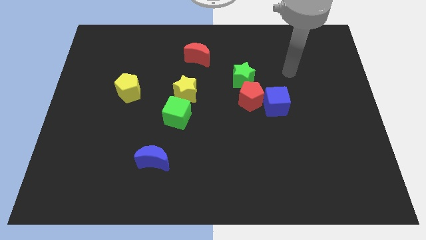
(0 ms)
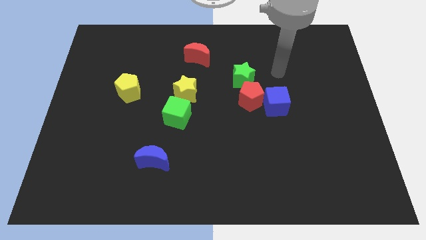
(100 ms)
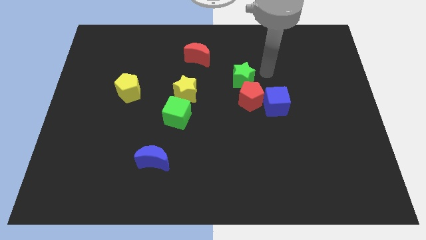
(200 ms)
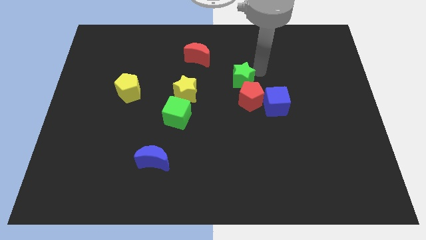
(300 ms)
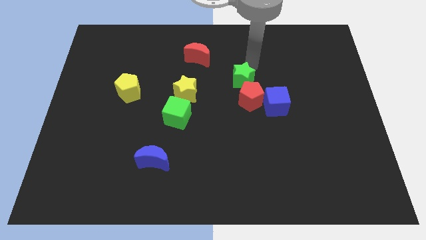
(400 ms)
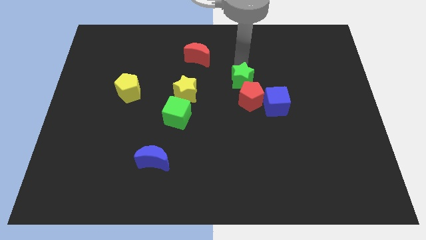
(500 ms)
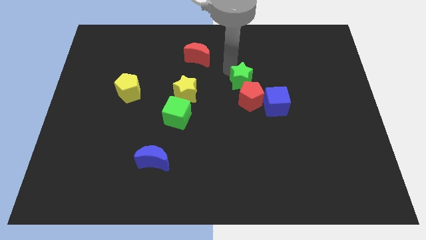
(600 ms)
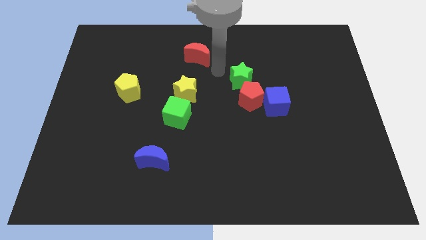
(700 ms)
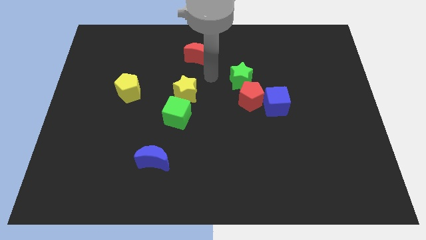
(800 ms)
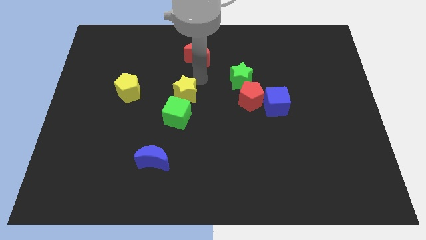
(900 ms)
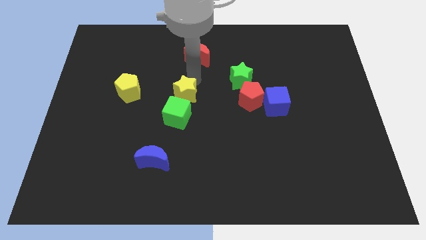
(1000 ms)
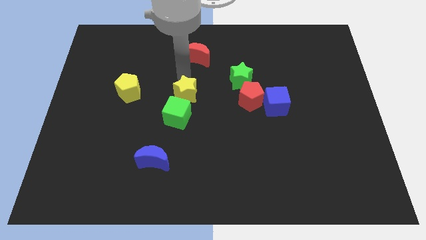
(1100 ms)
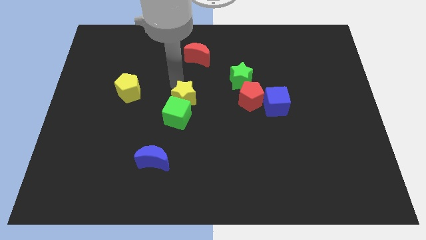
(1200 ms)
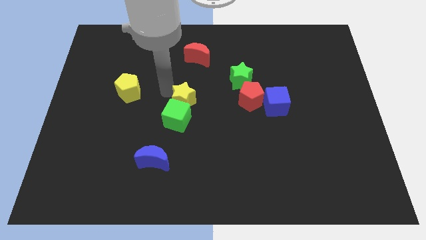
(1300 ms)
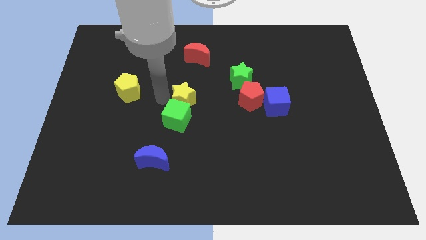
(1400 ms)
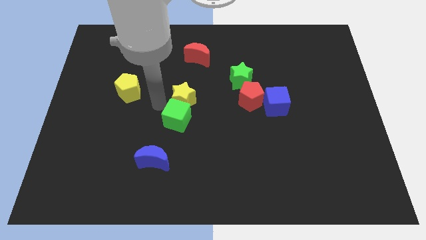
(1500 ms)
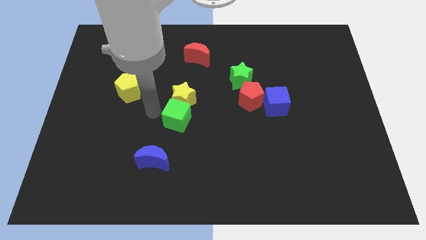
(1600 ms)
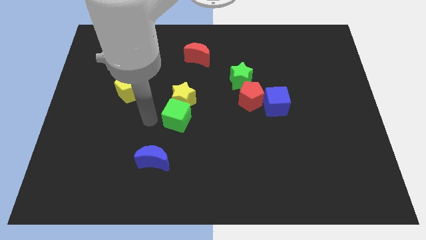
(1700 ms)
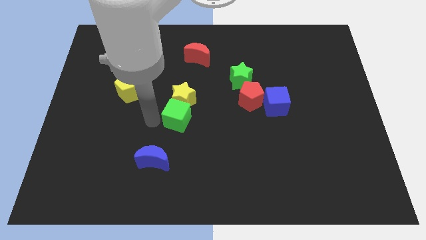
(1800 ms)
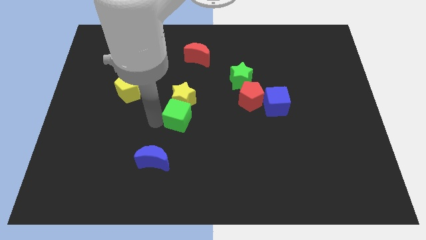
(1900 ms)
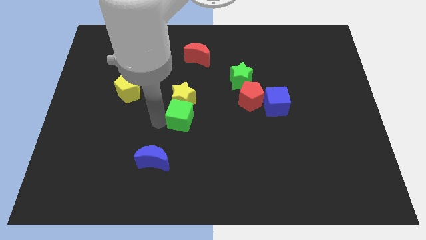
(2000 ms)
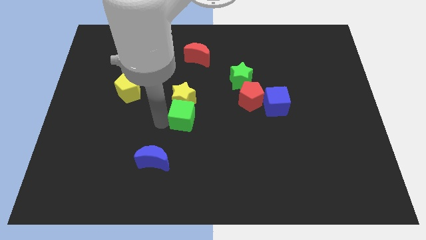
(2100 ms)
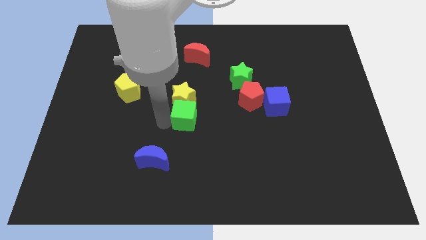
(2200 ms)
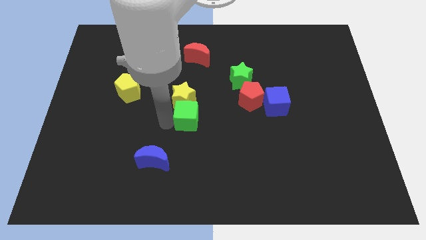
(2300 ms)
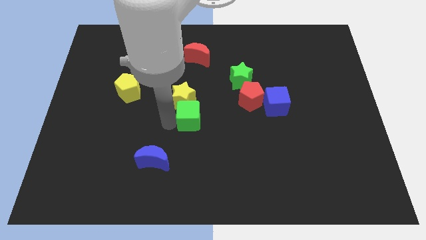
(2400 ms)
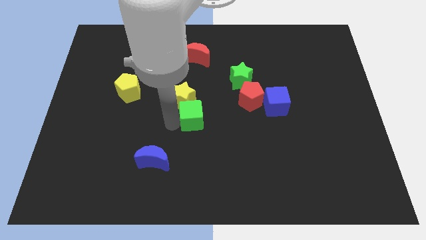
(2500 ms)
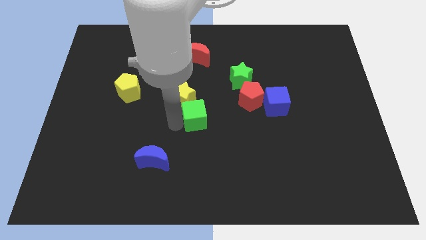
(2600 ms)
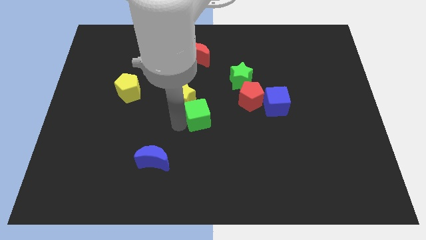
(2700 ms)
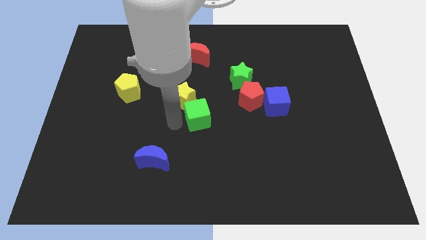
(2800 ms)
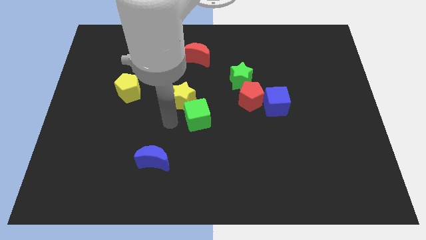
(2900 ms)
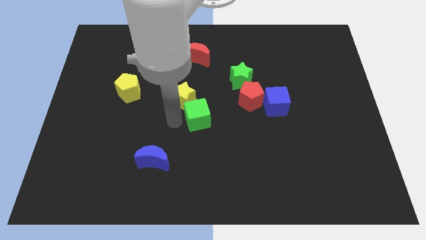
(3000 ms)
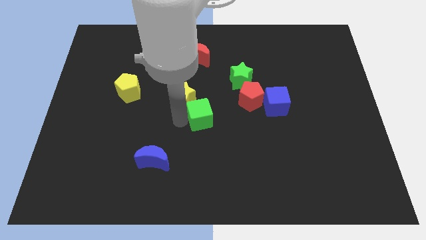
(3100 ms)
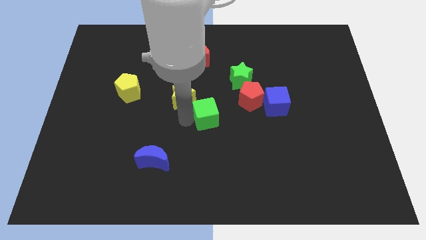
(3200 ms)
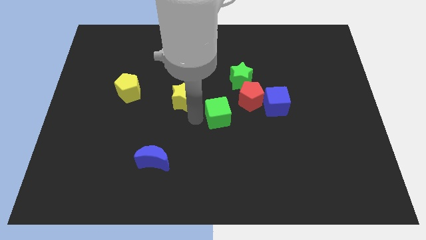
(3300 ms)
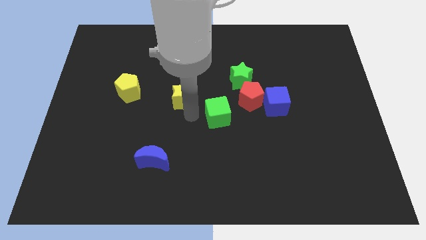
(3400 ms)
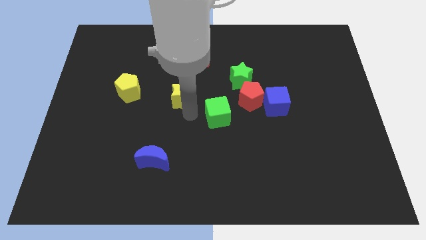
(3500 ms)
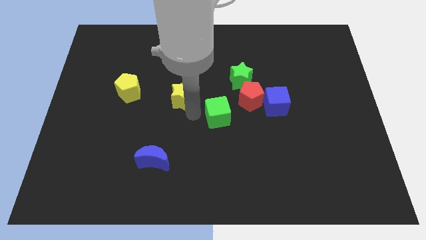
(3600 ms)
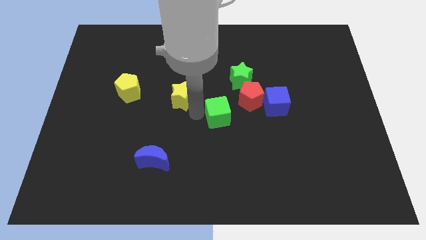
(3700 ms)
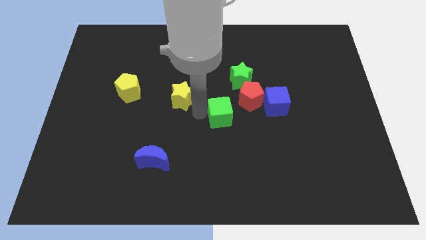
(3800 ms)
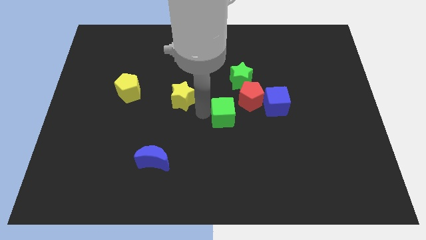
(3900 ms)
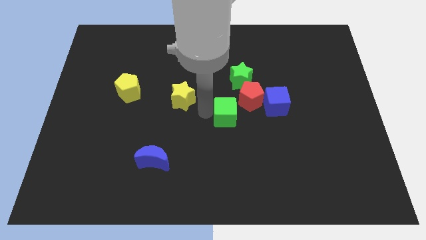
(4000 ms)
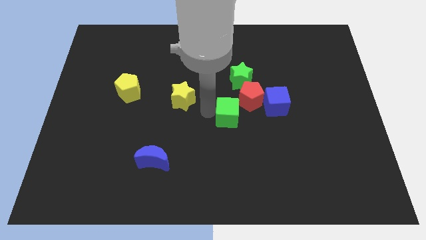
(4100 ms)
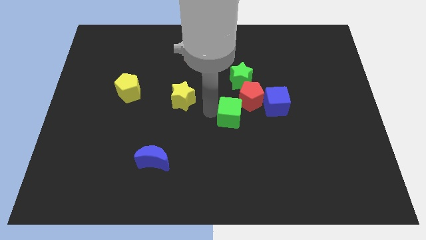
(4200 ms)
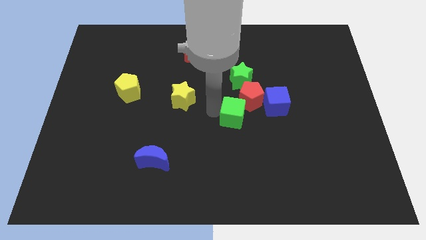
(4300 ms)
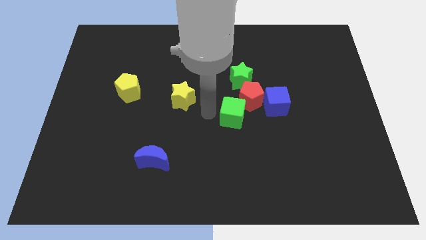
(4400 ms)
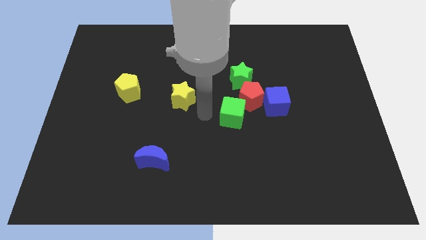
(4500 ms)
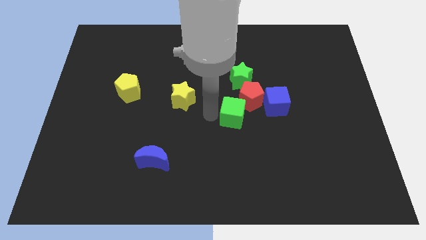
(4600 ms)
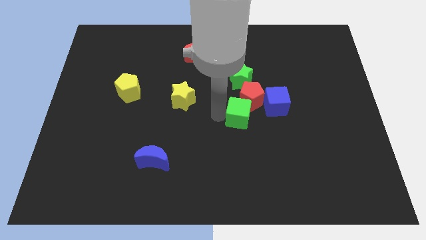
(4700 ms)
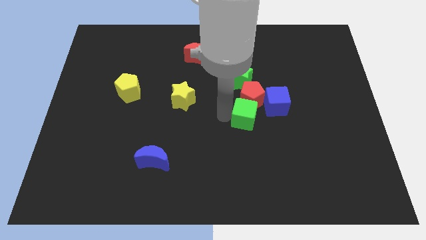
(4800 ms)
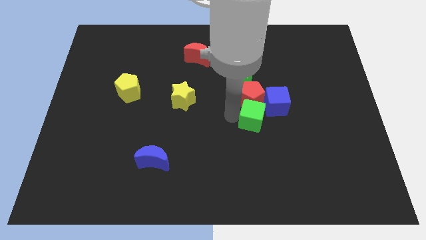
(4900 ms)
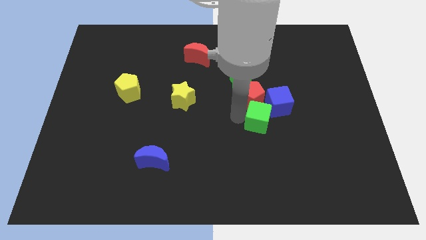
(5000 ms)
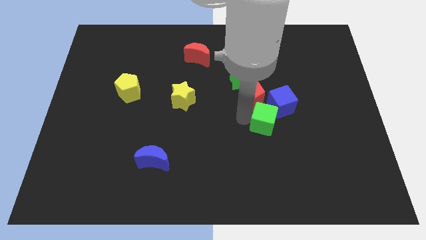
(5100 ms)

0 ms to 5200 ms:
slide the green cube right

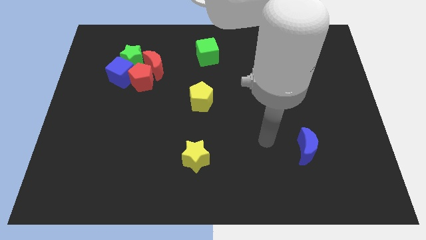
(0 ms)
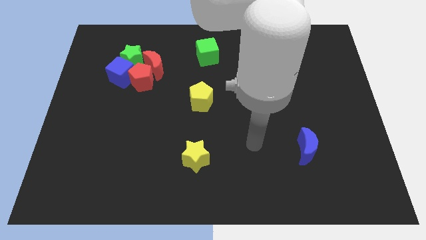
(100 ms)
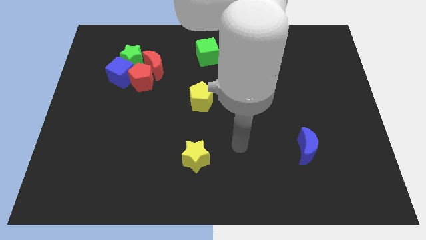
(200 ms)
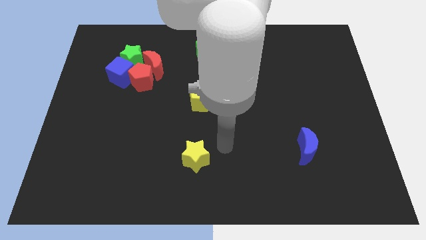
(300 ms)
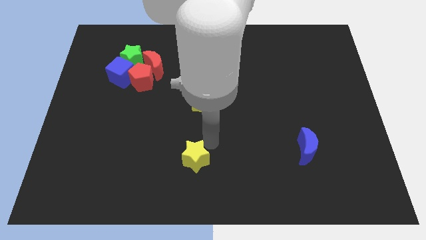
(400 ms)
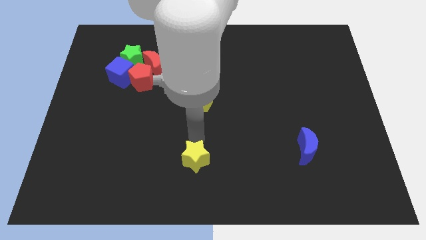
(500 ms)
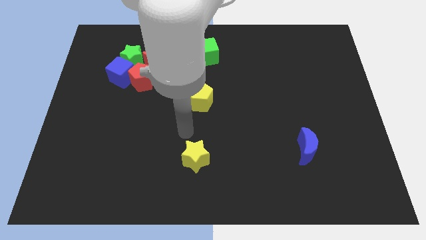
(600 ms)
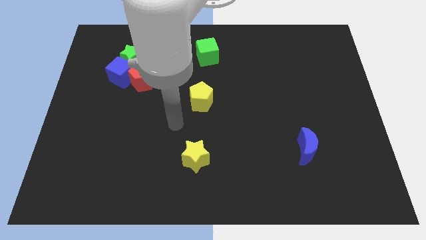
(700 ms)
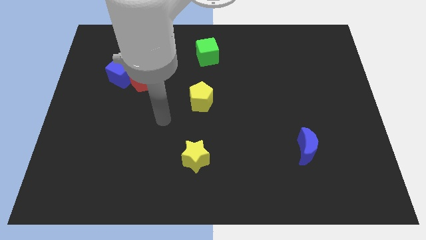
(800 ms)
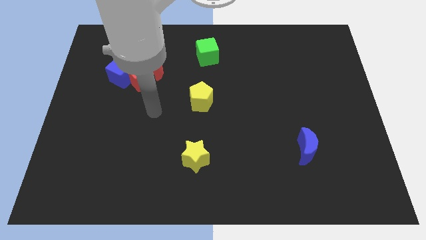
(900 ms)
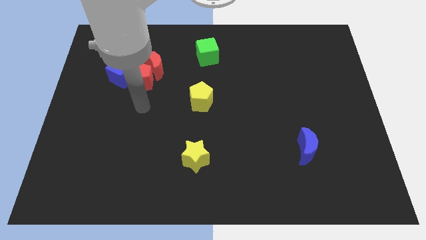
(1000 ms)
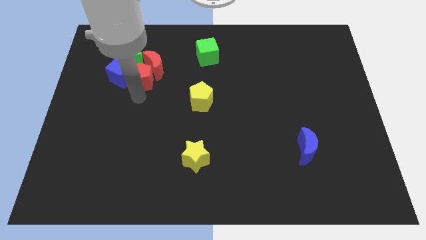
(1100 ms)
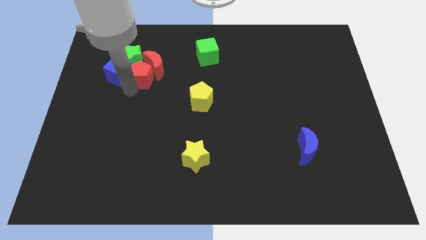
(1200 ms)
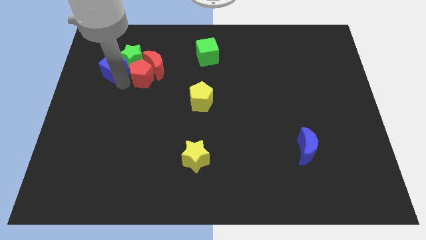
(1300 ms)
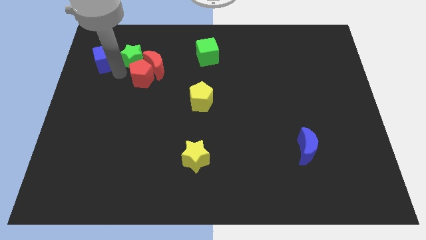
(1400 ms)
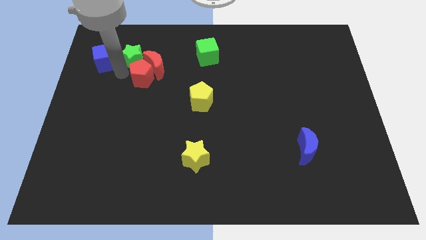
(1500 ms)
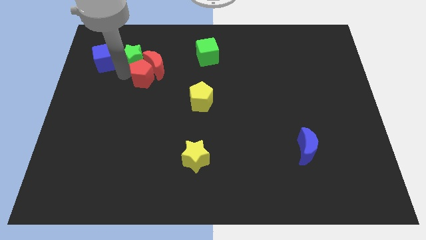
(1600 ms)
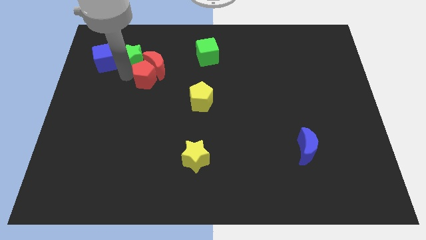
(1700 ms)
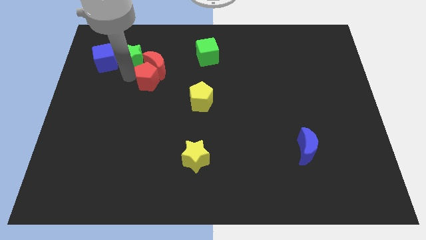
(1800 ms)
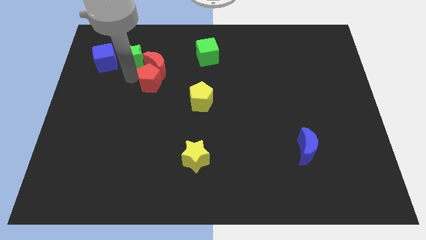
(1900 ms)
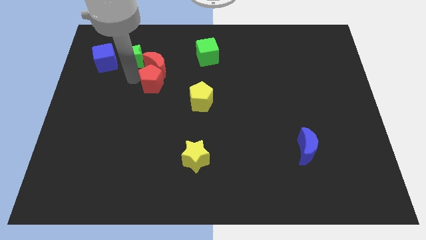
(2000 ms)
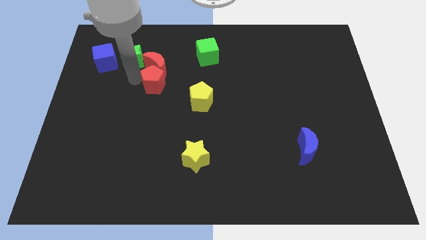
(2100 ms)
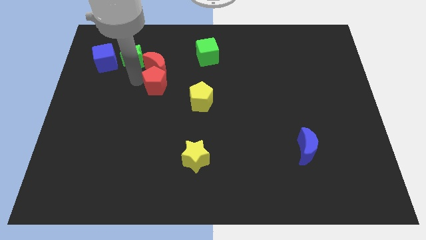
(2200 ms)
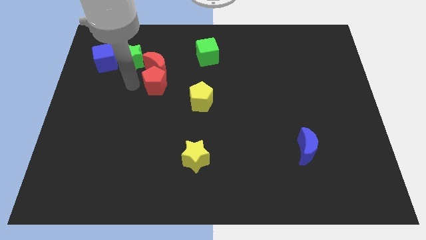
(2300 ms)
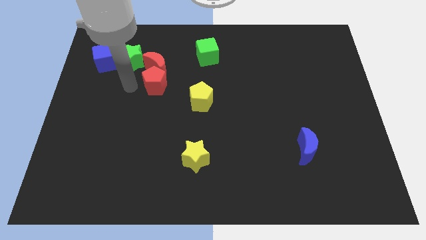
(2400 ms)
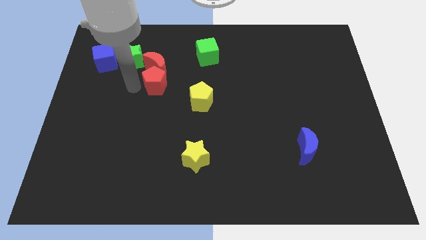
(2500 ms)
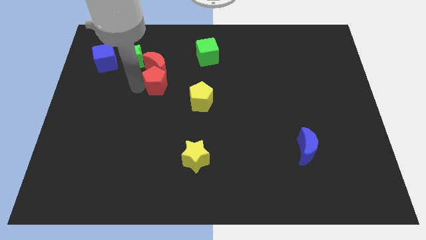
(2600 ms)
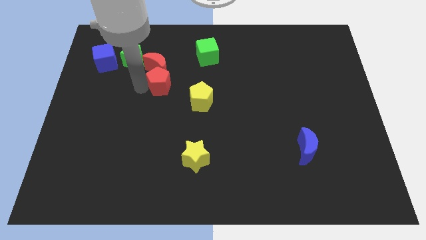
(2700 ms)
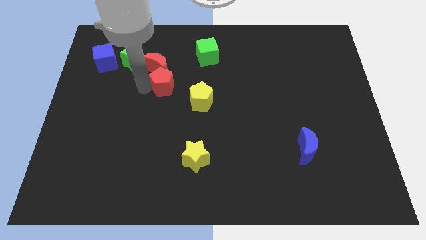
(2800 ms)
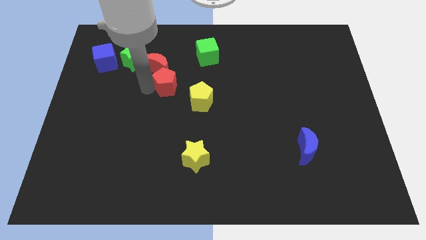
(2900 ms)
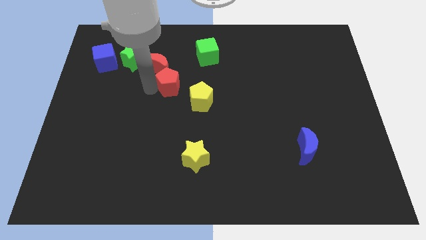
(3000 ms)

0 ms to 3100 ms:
push the red pentagon to the right a little

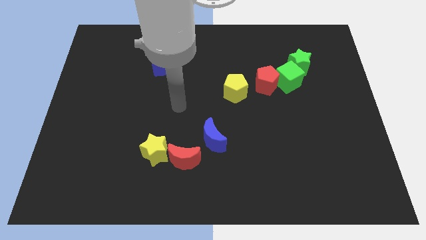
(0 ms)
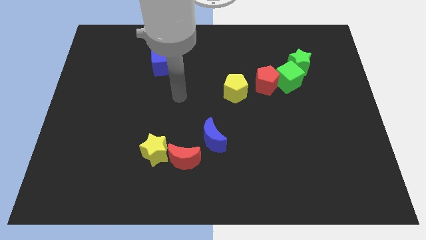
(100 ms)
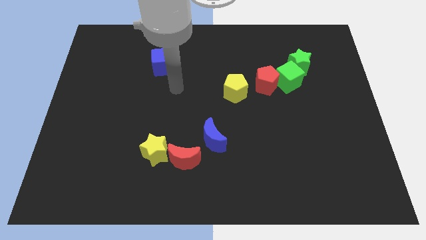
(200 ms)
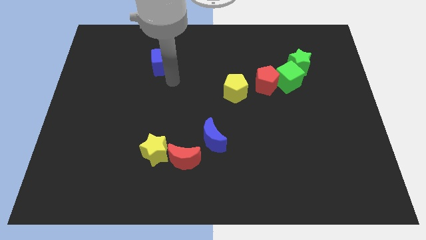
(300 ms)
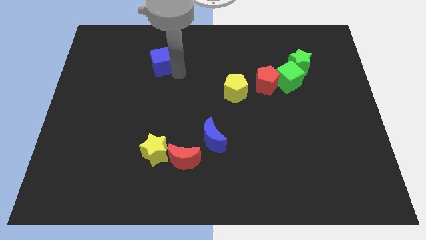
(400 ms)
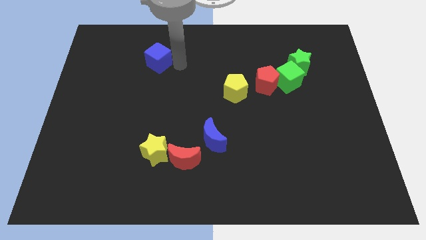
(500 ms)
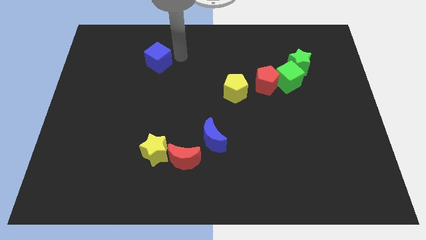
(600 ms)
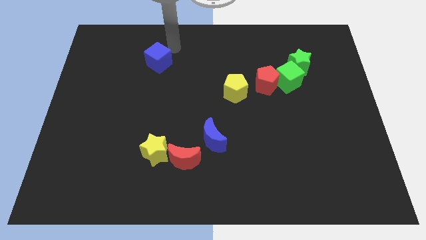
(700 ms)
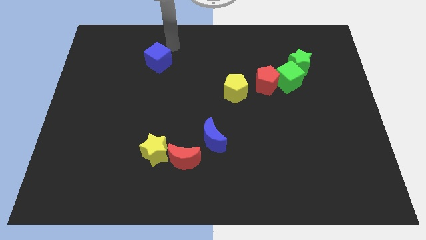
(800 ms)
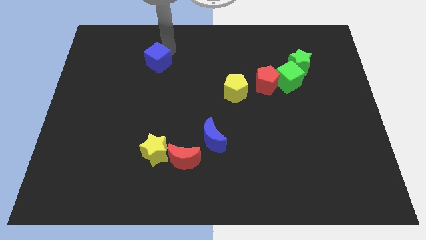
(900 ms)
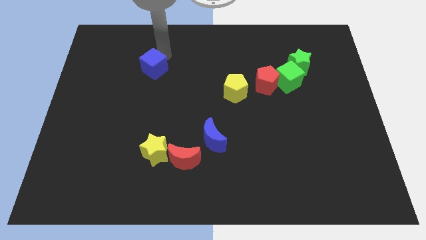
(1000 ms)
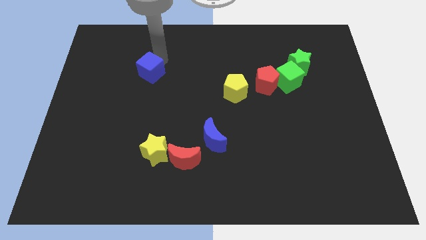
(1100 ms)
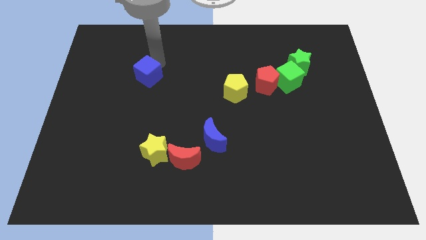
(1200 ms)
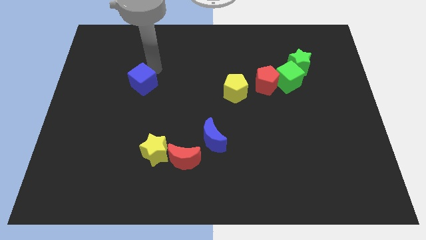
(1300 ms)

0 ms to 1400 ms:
slightly slide the blue cube down and then to the left
